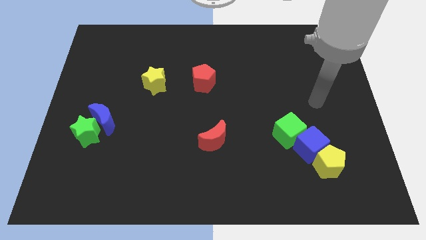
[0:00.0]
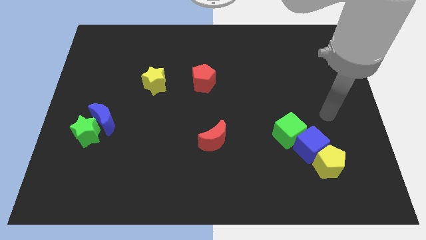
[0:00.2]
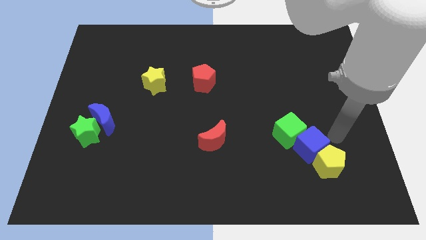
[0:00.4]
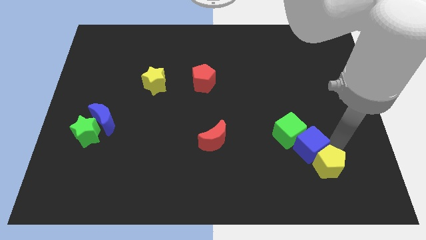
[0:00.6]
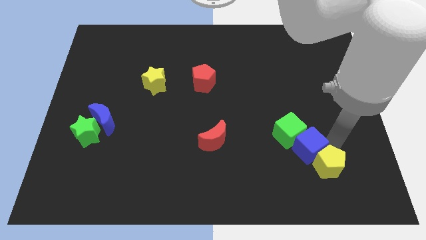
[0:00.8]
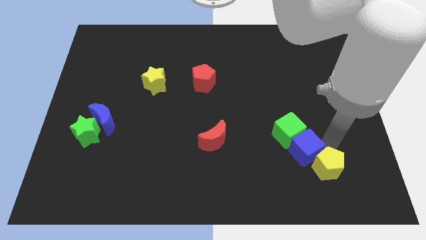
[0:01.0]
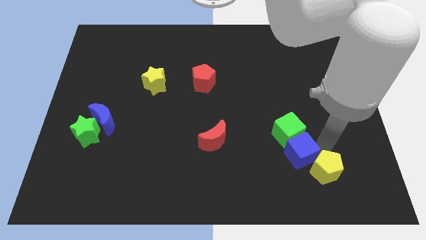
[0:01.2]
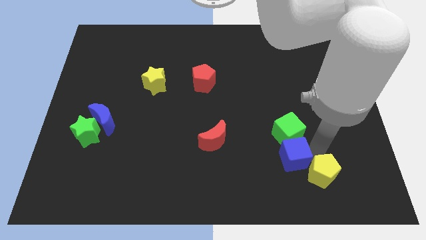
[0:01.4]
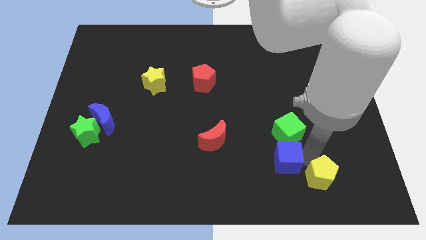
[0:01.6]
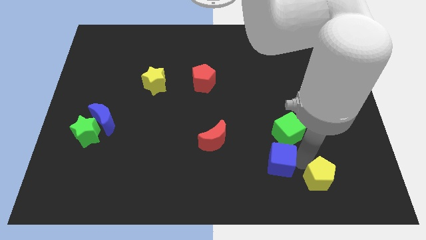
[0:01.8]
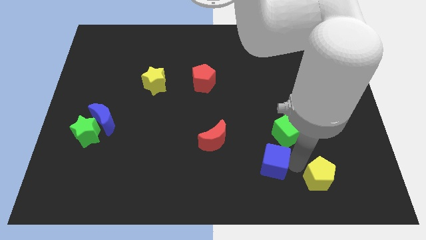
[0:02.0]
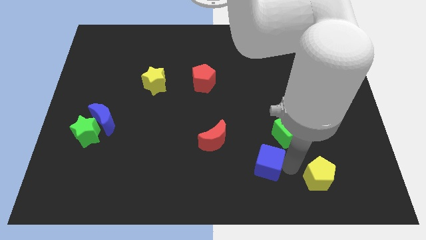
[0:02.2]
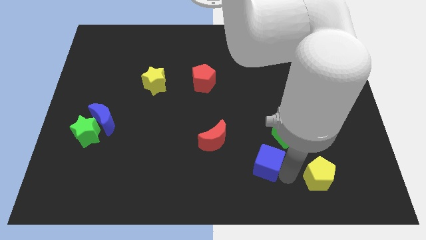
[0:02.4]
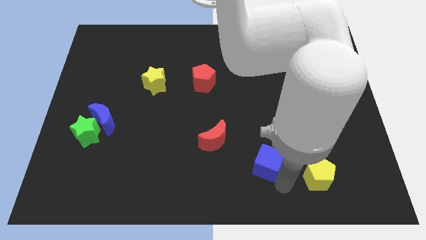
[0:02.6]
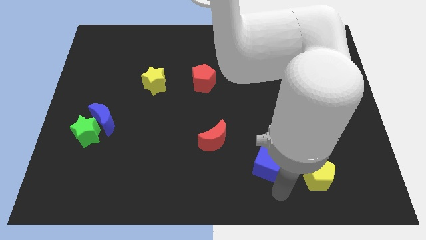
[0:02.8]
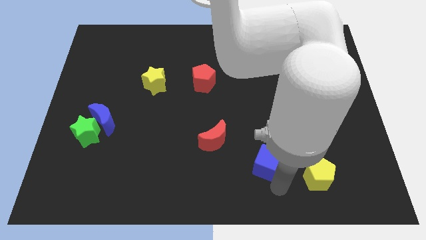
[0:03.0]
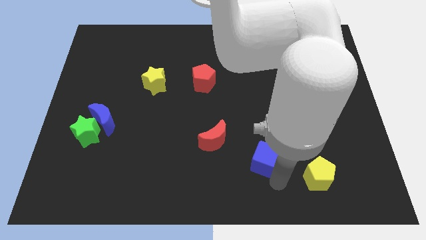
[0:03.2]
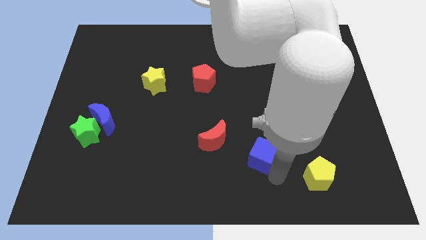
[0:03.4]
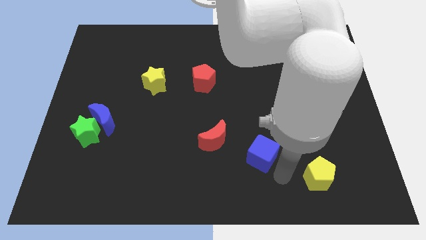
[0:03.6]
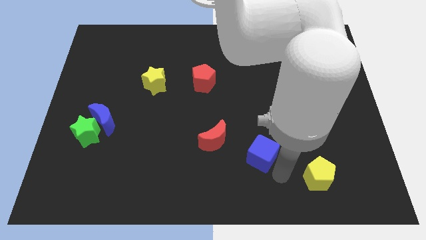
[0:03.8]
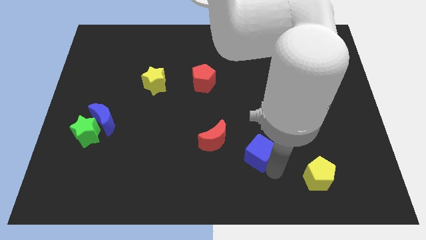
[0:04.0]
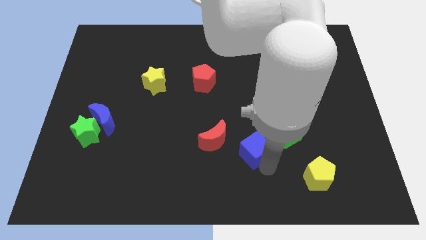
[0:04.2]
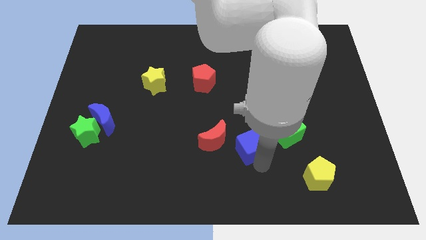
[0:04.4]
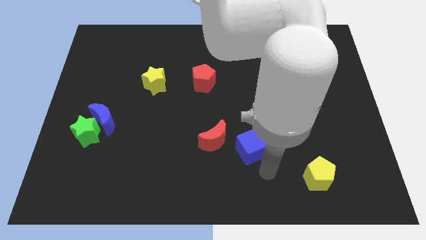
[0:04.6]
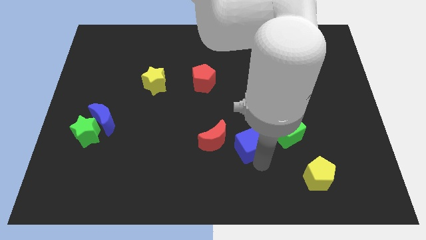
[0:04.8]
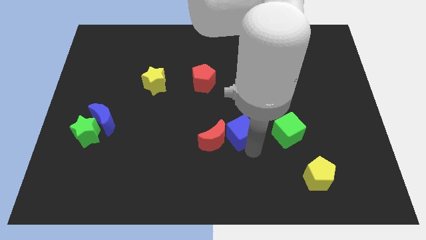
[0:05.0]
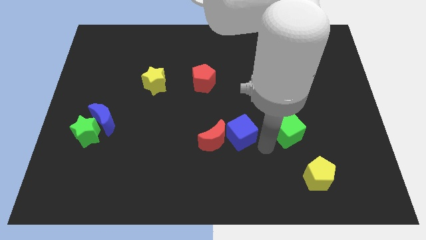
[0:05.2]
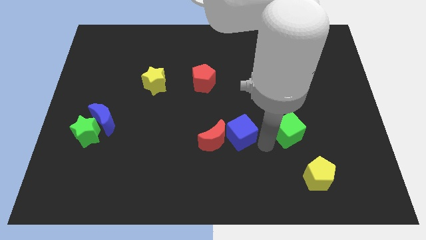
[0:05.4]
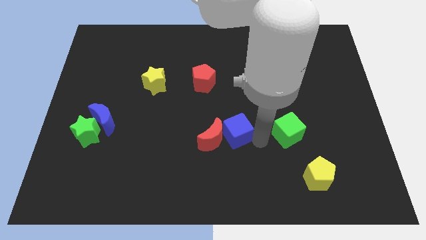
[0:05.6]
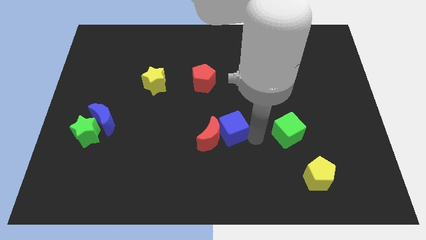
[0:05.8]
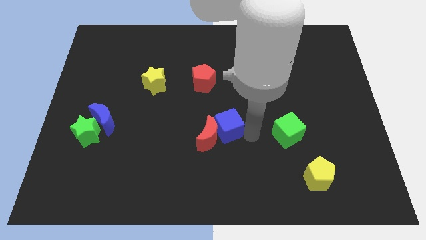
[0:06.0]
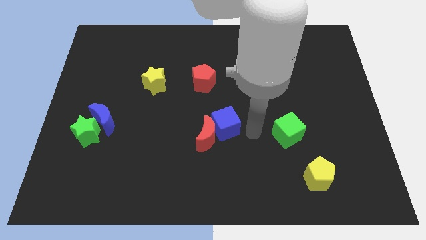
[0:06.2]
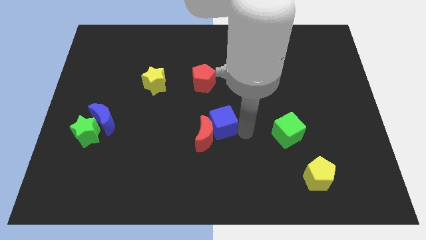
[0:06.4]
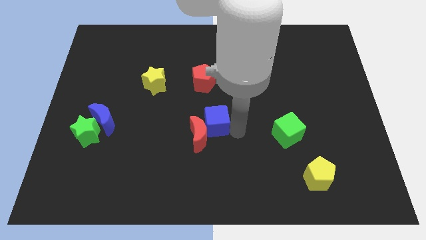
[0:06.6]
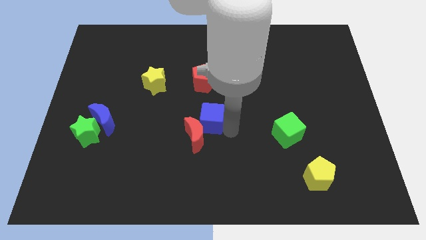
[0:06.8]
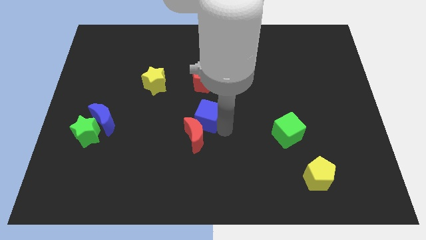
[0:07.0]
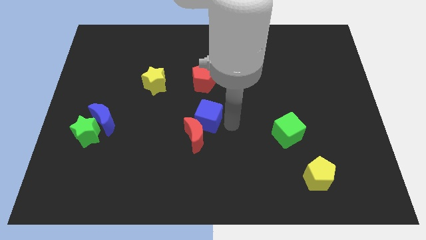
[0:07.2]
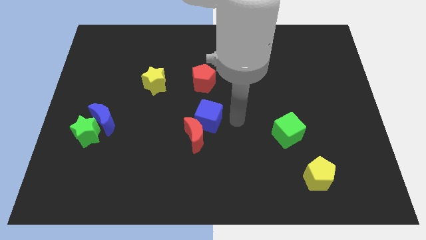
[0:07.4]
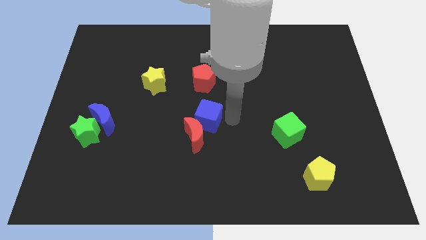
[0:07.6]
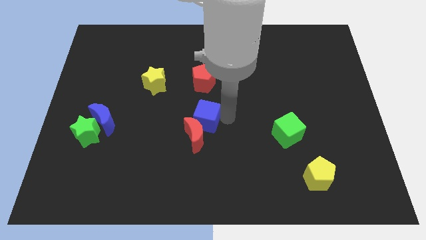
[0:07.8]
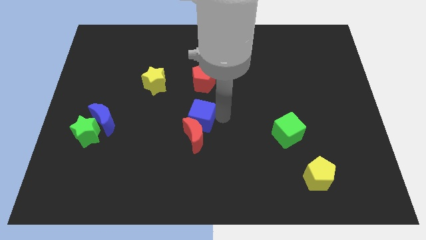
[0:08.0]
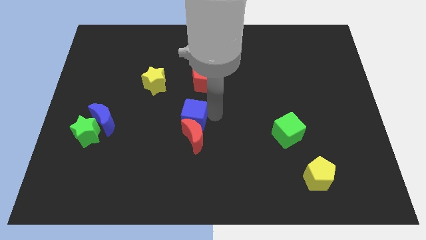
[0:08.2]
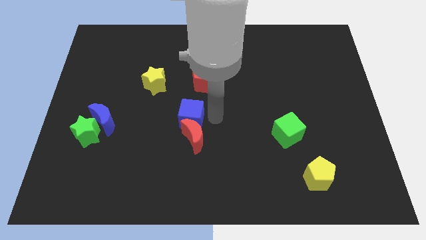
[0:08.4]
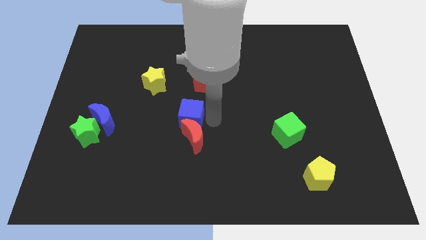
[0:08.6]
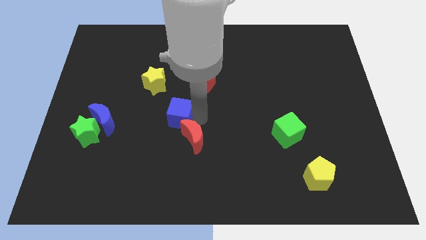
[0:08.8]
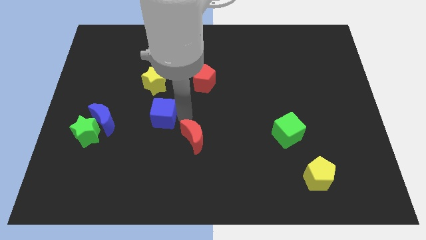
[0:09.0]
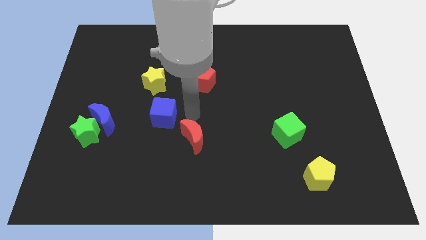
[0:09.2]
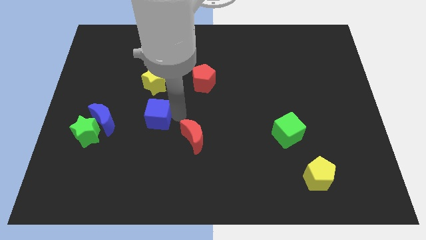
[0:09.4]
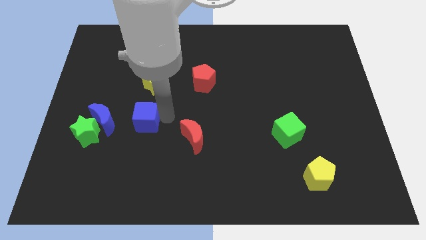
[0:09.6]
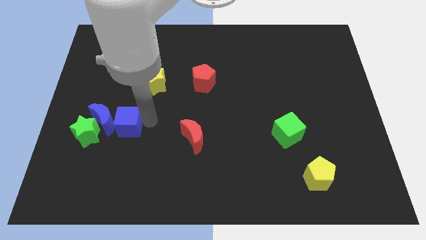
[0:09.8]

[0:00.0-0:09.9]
put the blue cube next to the blue moon

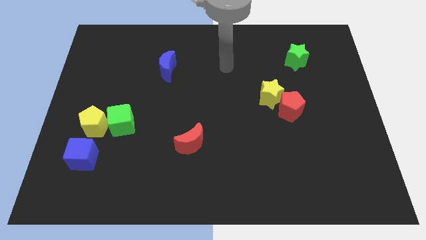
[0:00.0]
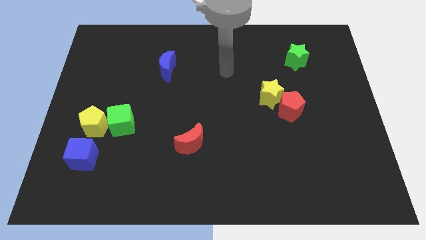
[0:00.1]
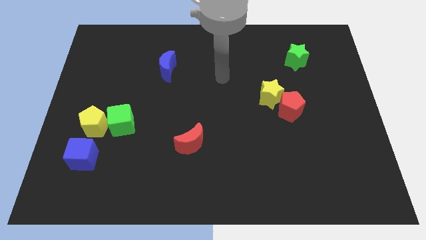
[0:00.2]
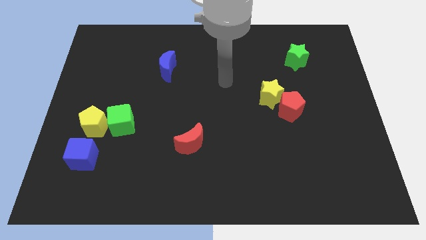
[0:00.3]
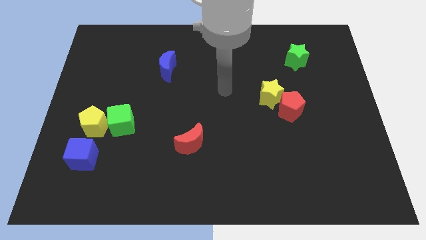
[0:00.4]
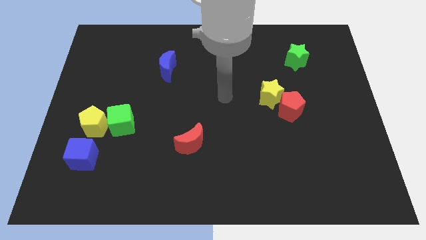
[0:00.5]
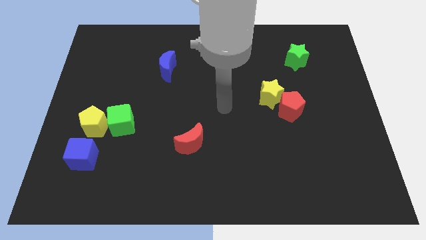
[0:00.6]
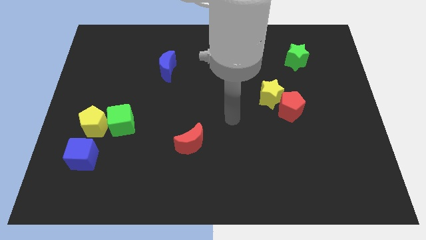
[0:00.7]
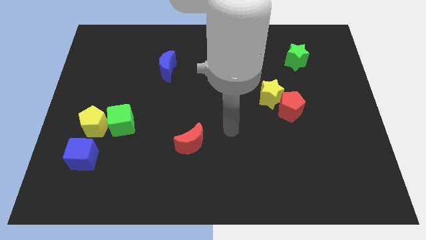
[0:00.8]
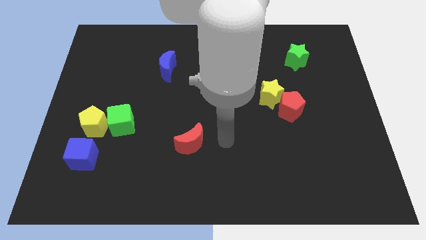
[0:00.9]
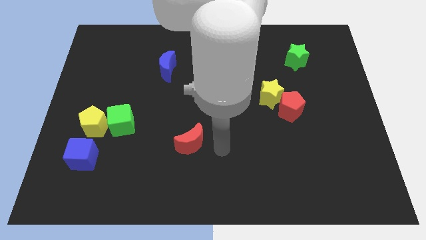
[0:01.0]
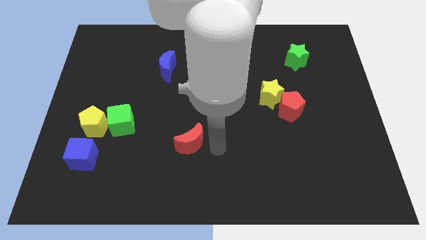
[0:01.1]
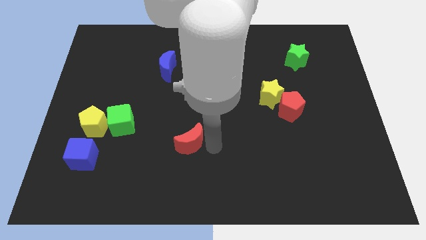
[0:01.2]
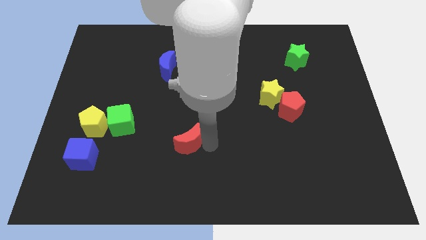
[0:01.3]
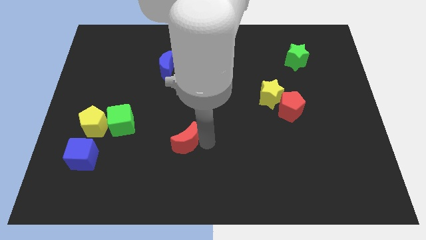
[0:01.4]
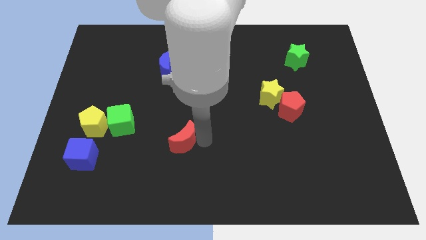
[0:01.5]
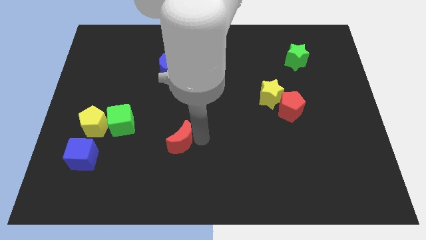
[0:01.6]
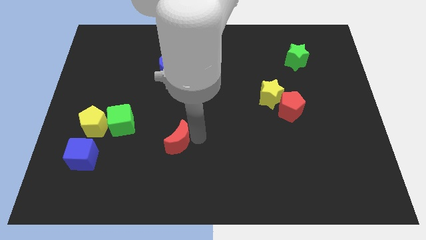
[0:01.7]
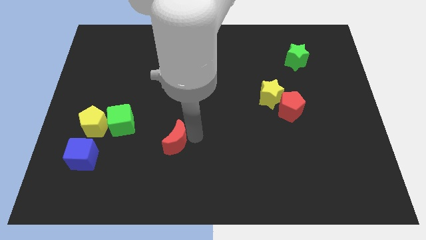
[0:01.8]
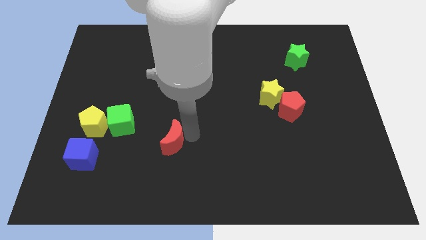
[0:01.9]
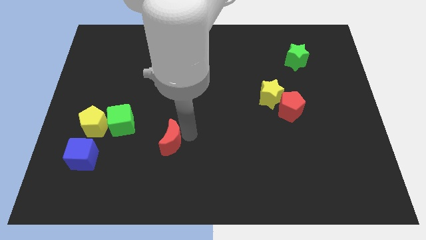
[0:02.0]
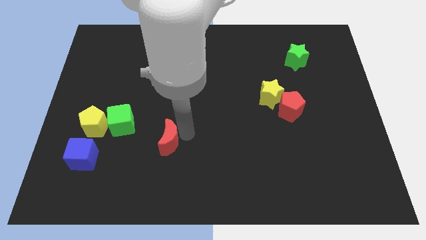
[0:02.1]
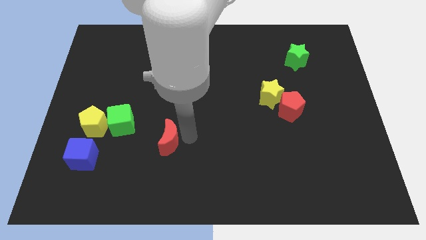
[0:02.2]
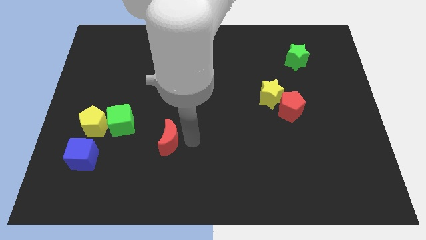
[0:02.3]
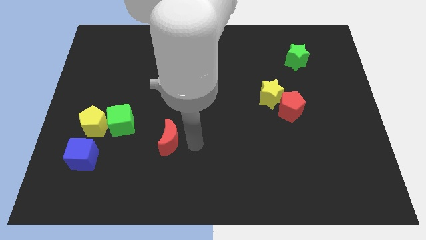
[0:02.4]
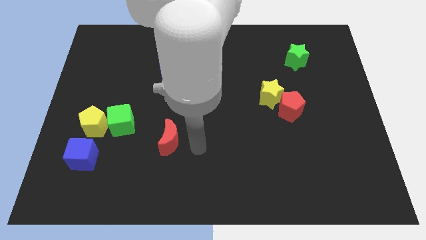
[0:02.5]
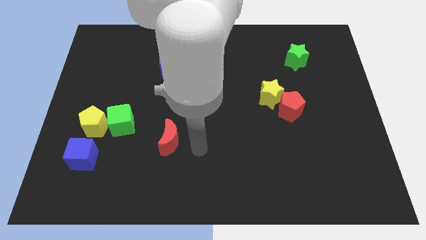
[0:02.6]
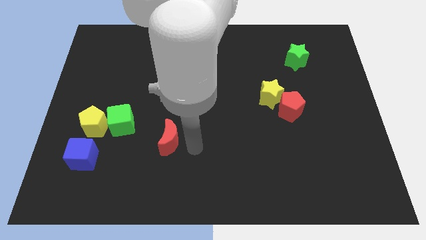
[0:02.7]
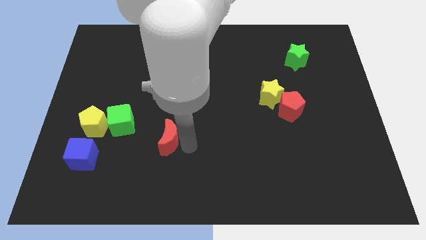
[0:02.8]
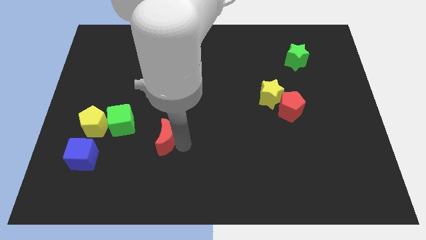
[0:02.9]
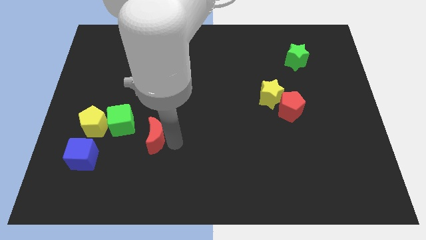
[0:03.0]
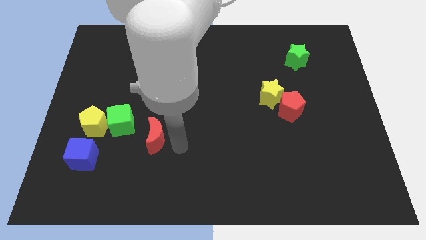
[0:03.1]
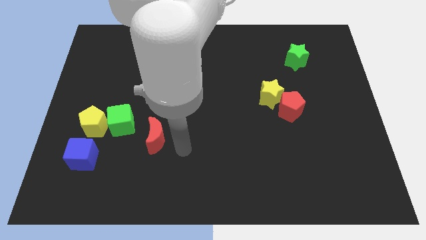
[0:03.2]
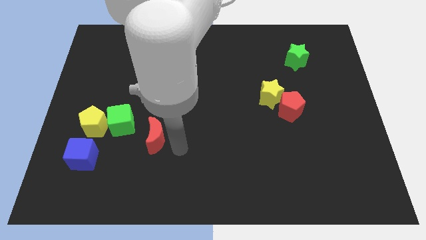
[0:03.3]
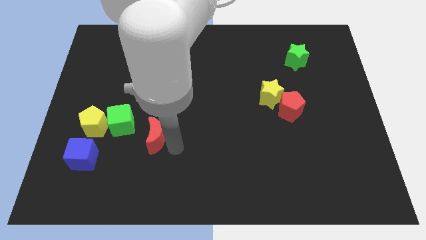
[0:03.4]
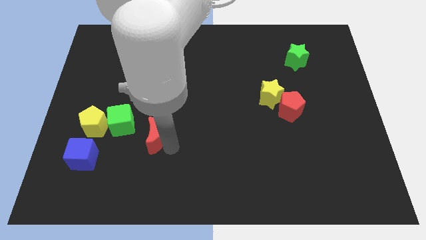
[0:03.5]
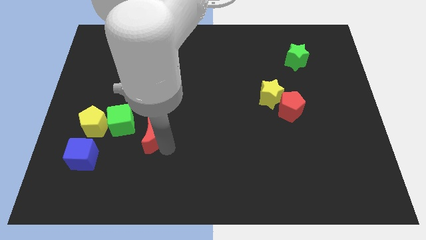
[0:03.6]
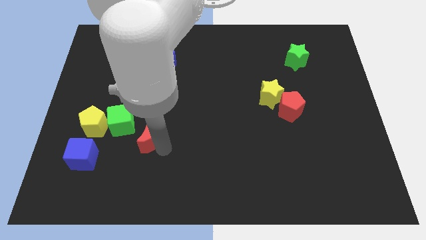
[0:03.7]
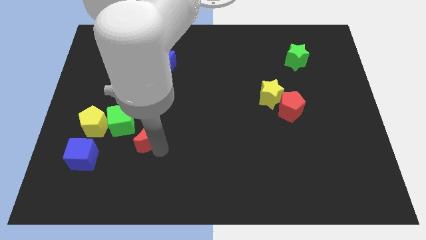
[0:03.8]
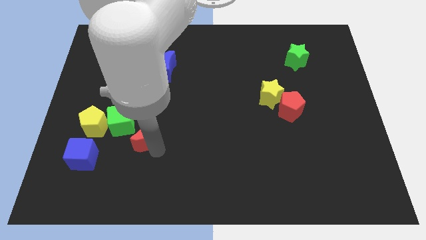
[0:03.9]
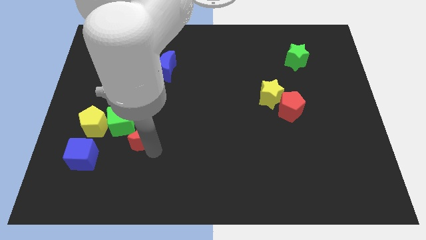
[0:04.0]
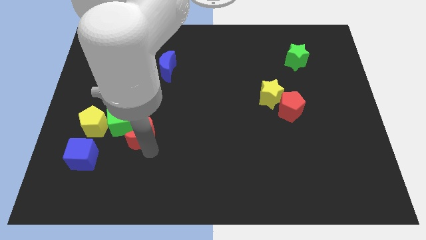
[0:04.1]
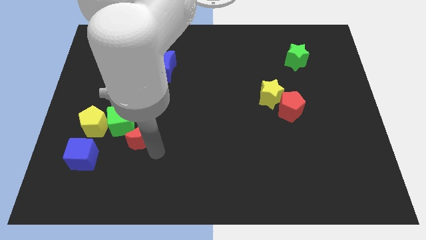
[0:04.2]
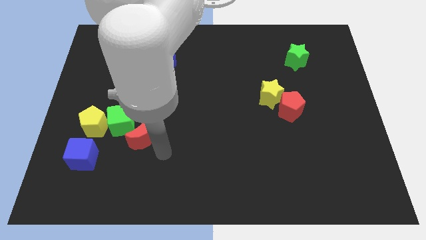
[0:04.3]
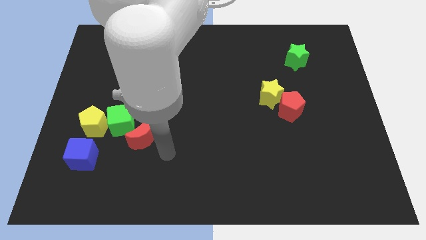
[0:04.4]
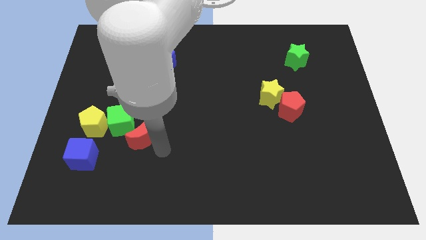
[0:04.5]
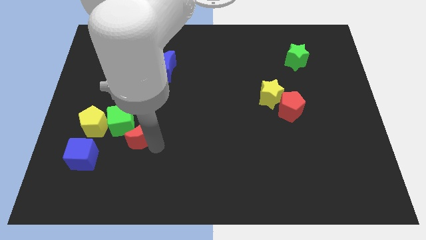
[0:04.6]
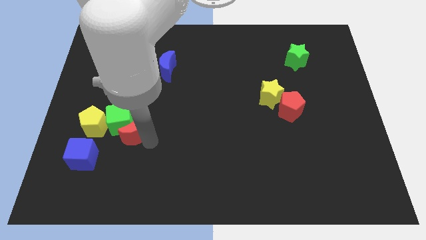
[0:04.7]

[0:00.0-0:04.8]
move the red moon to the green cube
